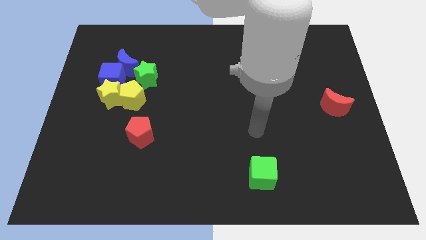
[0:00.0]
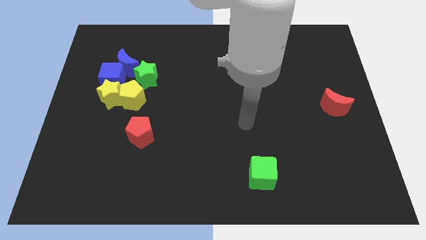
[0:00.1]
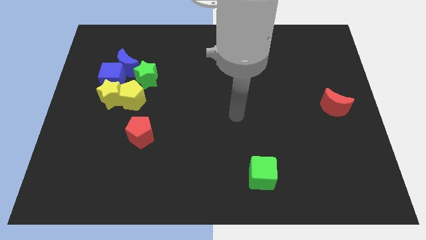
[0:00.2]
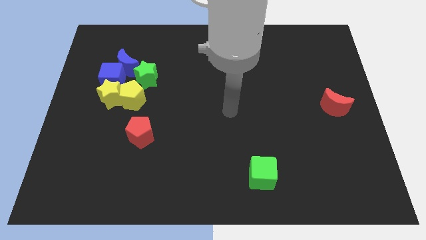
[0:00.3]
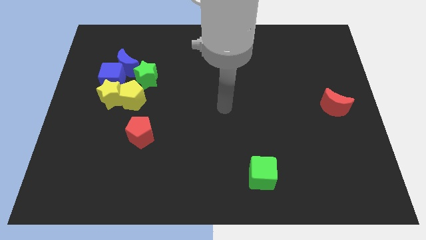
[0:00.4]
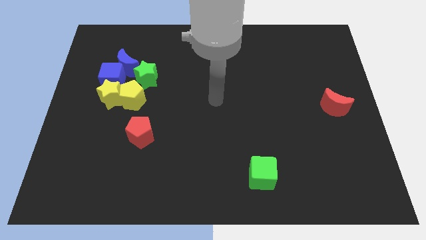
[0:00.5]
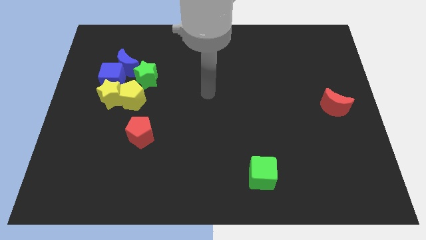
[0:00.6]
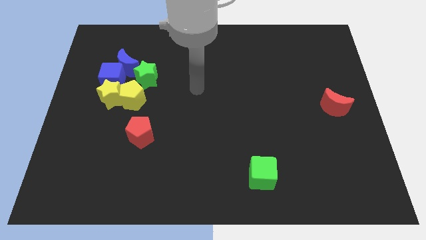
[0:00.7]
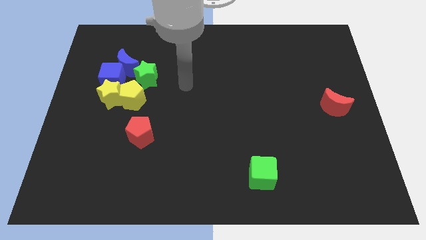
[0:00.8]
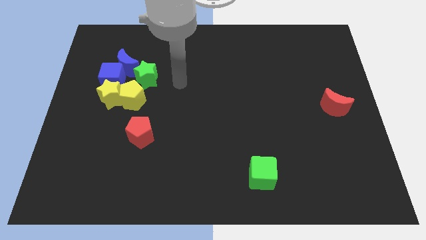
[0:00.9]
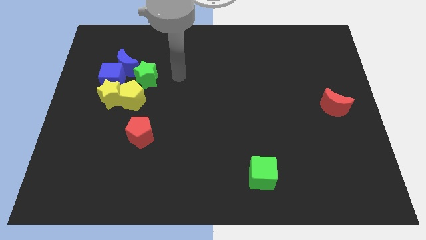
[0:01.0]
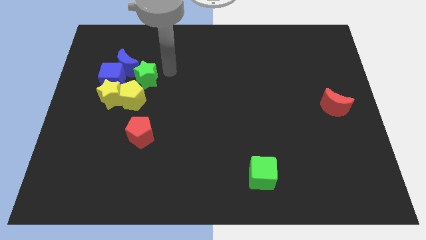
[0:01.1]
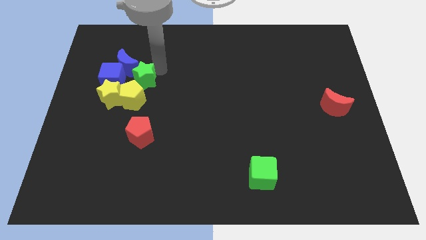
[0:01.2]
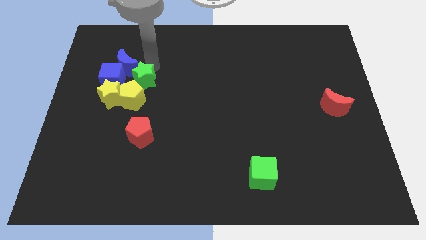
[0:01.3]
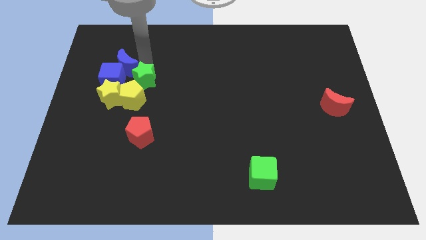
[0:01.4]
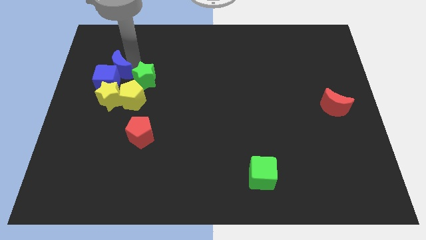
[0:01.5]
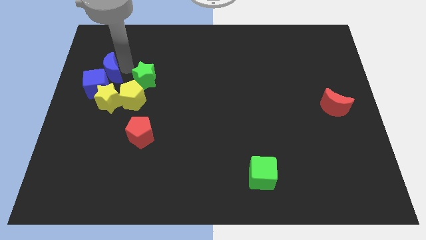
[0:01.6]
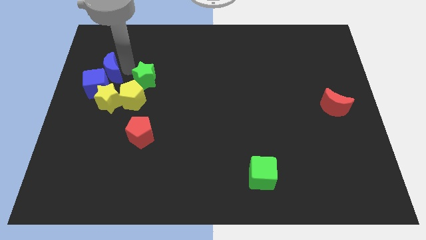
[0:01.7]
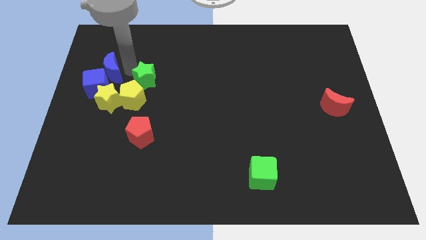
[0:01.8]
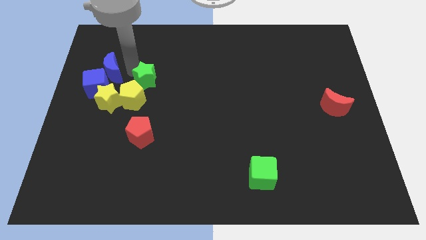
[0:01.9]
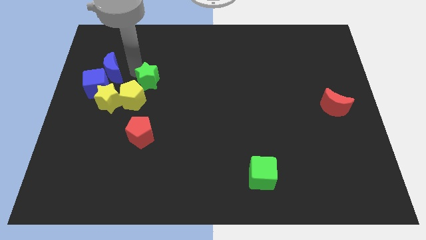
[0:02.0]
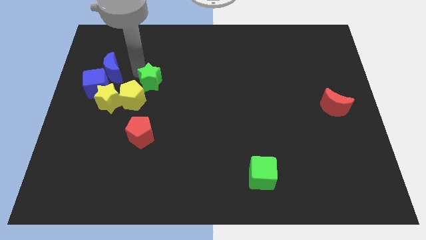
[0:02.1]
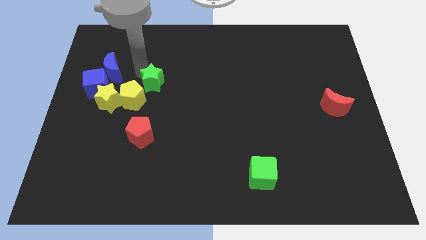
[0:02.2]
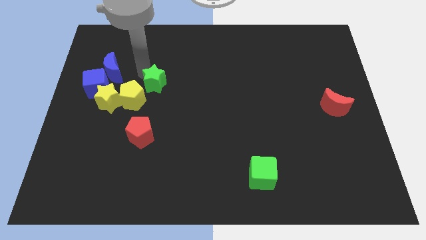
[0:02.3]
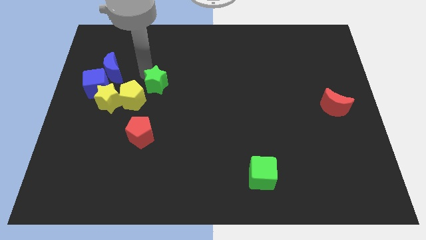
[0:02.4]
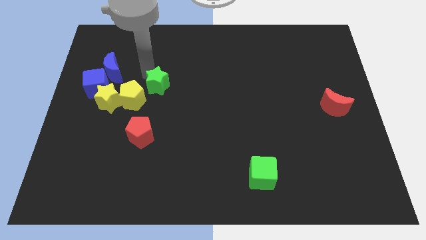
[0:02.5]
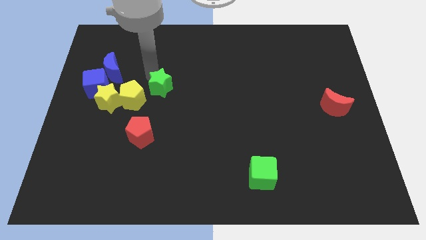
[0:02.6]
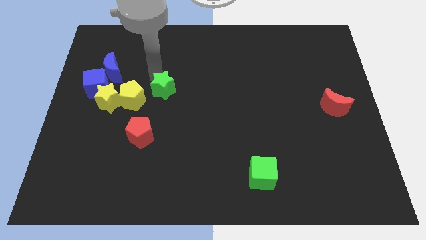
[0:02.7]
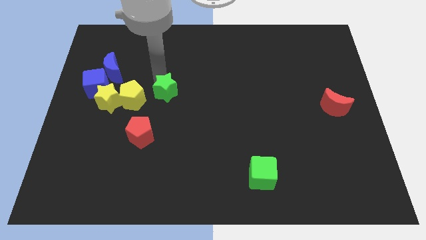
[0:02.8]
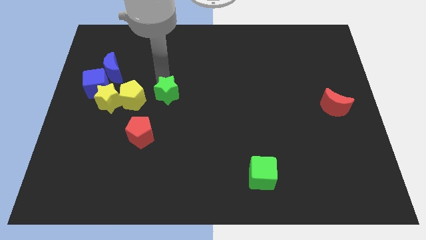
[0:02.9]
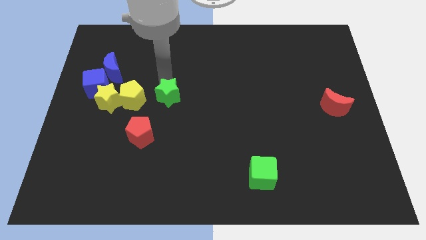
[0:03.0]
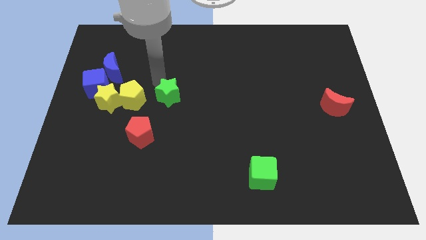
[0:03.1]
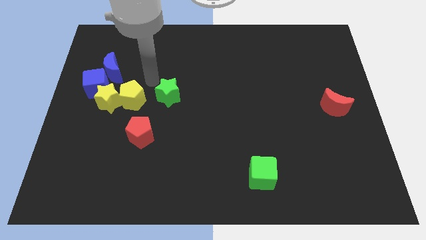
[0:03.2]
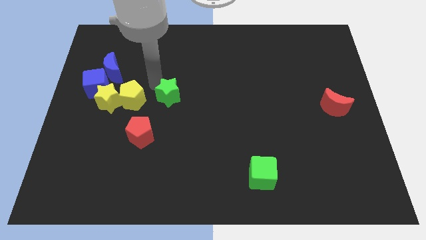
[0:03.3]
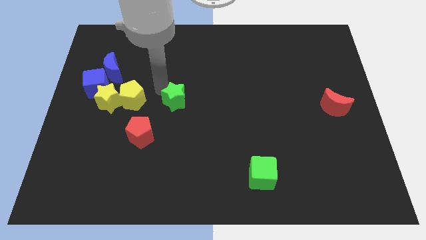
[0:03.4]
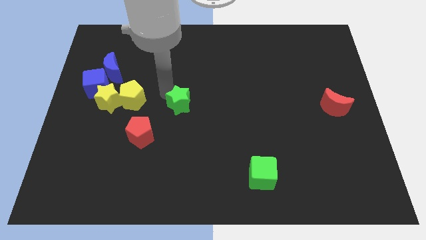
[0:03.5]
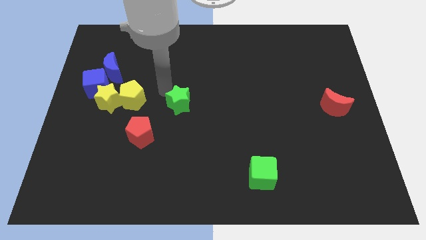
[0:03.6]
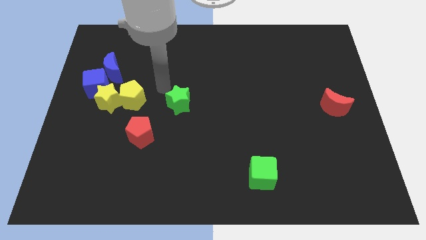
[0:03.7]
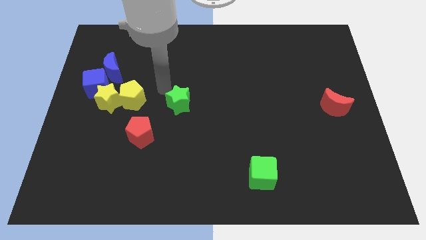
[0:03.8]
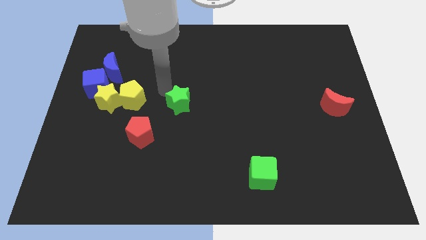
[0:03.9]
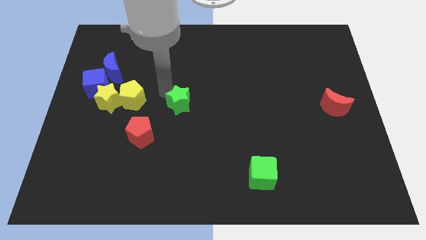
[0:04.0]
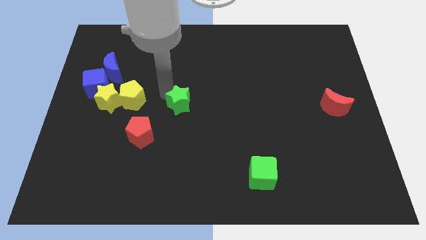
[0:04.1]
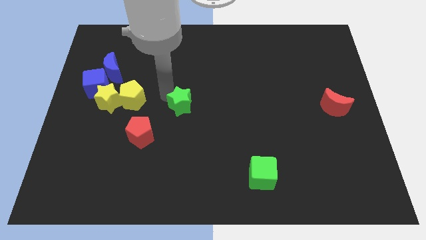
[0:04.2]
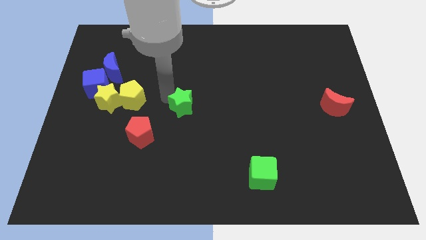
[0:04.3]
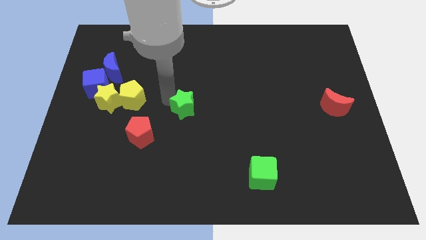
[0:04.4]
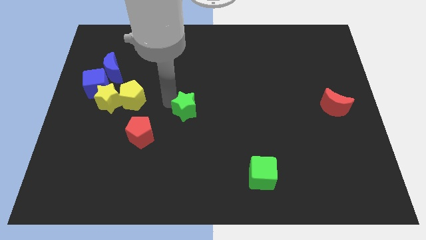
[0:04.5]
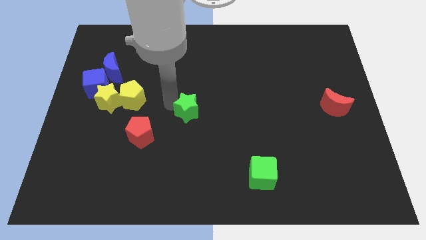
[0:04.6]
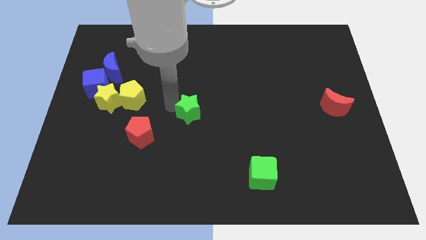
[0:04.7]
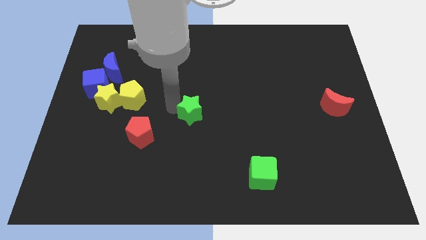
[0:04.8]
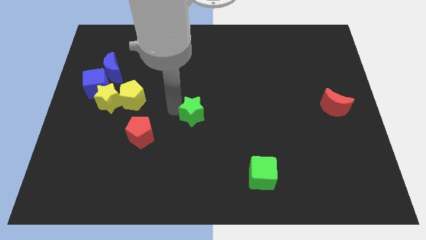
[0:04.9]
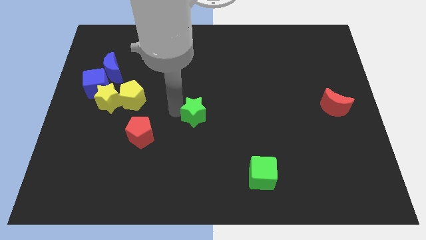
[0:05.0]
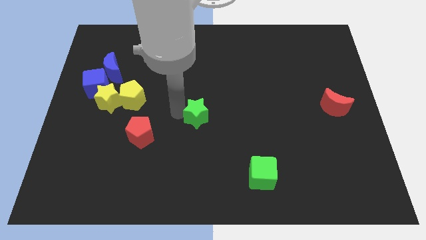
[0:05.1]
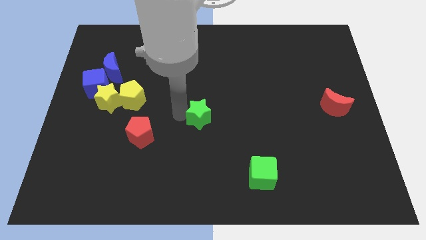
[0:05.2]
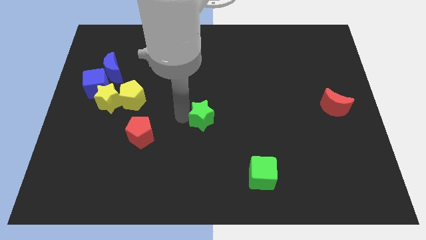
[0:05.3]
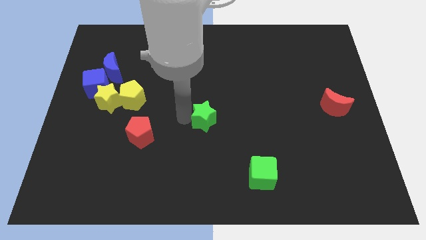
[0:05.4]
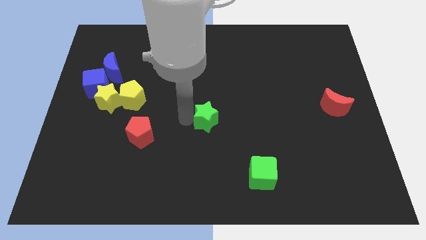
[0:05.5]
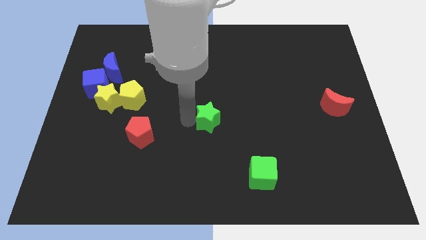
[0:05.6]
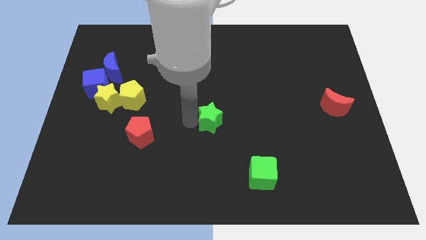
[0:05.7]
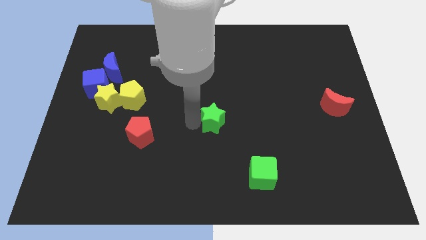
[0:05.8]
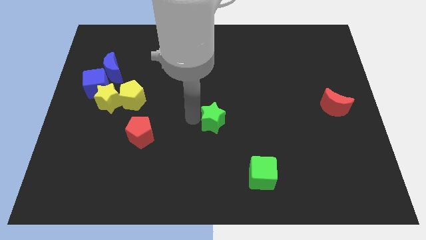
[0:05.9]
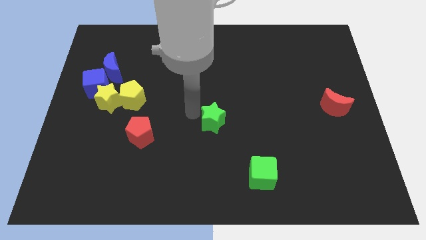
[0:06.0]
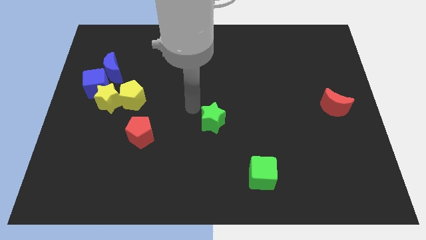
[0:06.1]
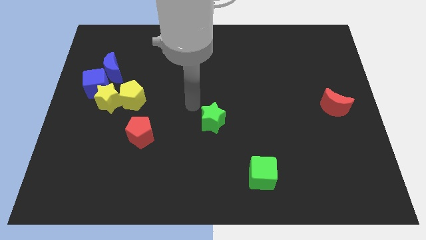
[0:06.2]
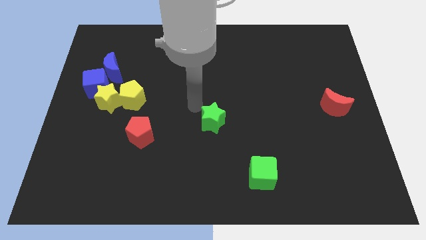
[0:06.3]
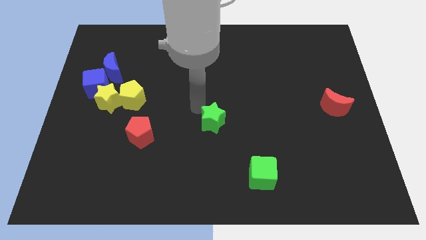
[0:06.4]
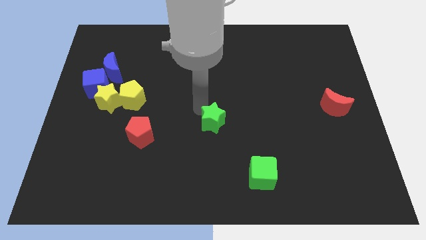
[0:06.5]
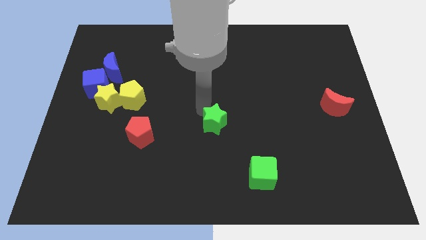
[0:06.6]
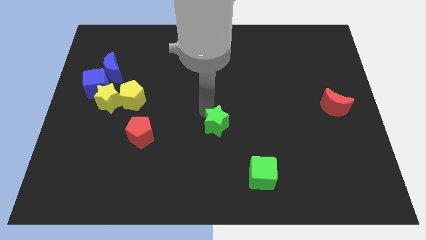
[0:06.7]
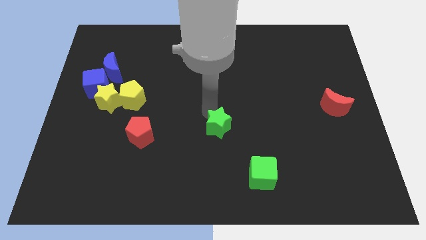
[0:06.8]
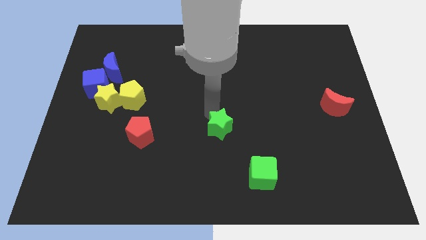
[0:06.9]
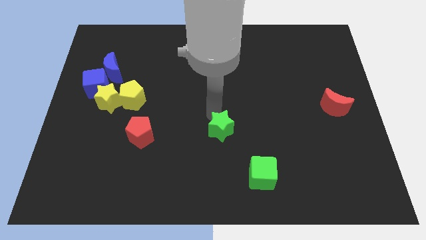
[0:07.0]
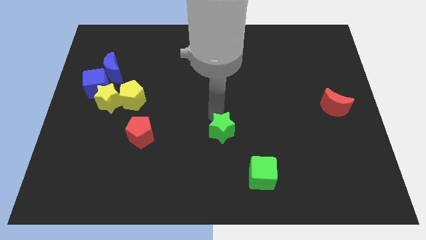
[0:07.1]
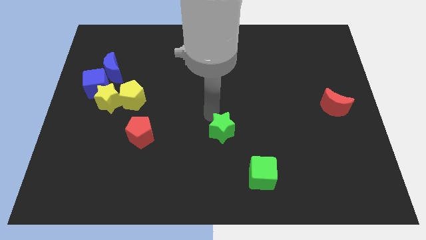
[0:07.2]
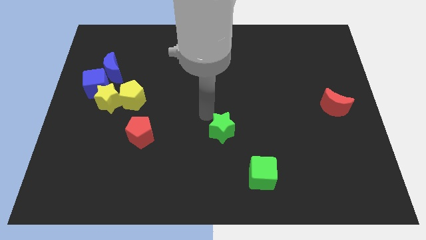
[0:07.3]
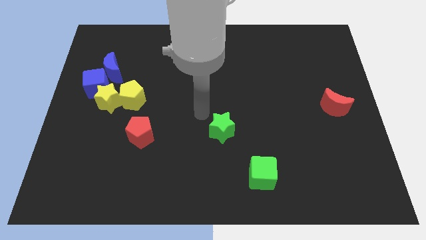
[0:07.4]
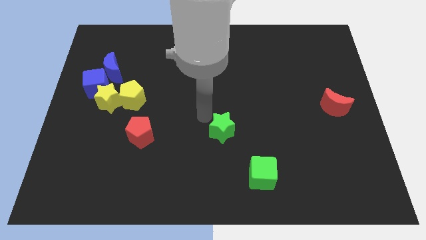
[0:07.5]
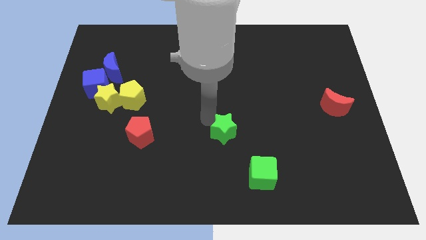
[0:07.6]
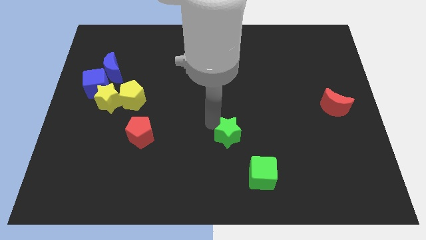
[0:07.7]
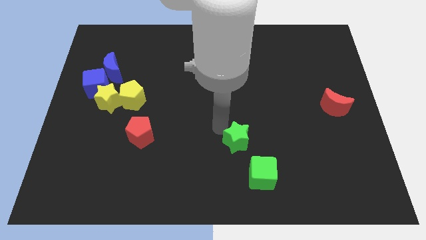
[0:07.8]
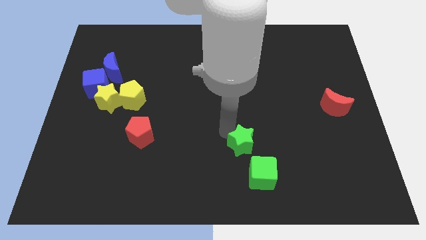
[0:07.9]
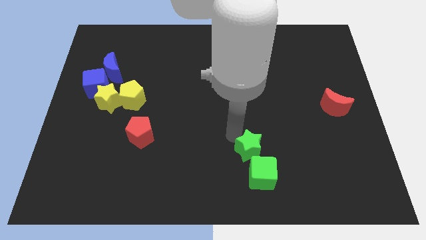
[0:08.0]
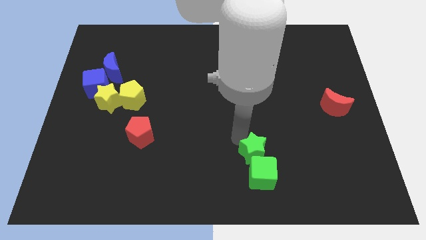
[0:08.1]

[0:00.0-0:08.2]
move the green star to the green cube
